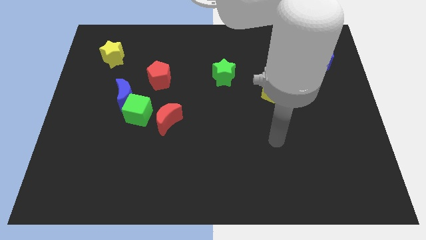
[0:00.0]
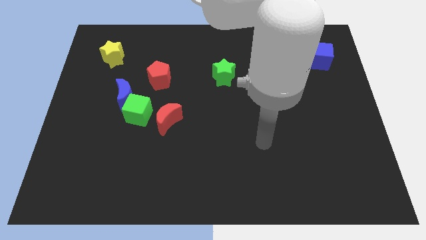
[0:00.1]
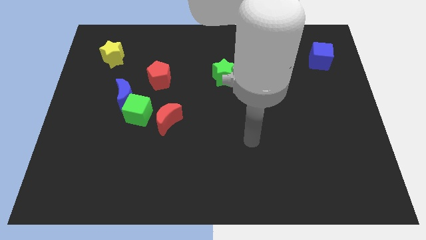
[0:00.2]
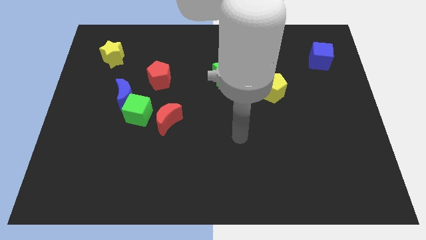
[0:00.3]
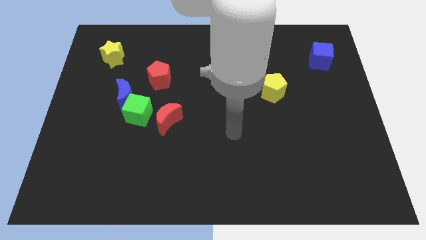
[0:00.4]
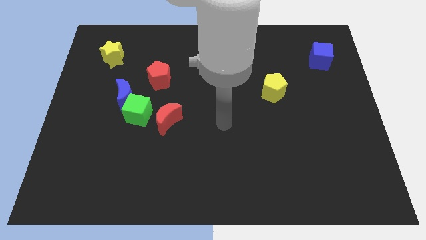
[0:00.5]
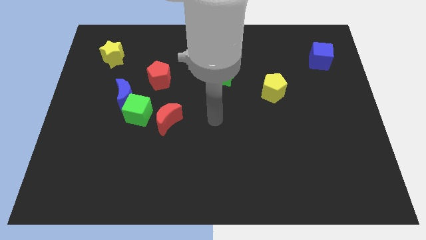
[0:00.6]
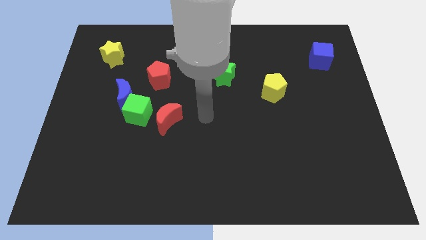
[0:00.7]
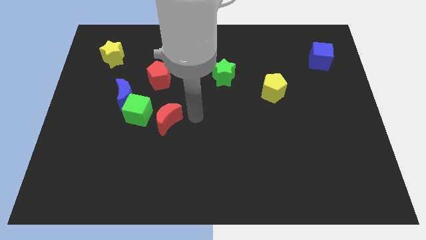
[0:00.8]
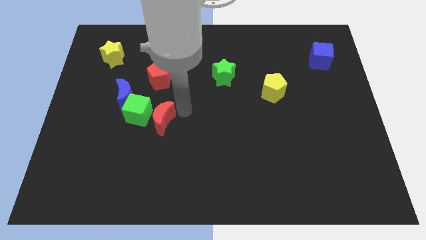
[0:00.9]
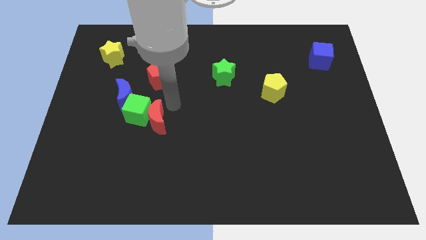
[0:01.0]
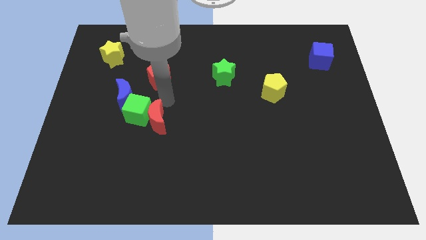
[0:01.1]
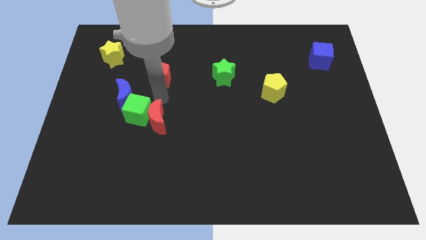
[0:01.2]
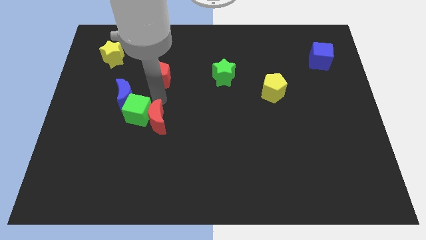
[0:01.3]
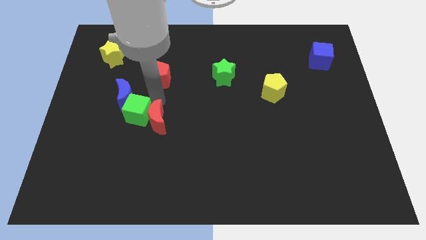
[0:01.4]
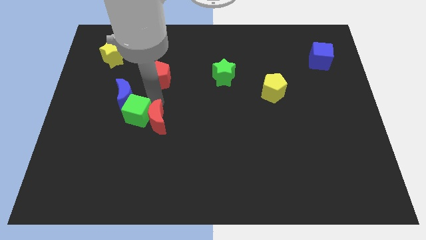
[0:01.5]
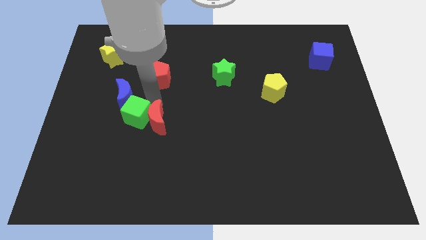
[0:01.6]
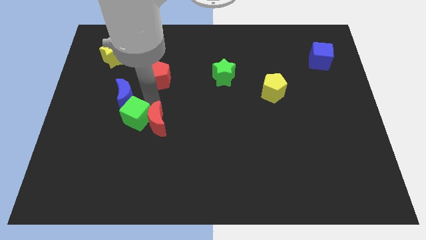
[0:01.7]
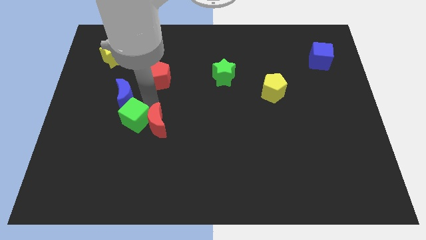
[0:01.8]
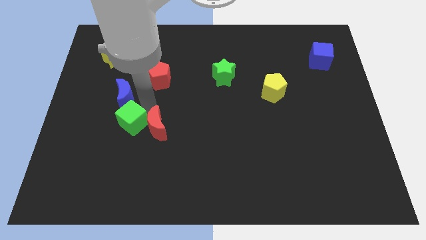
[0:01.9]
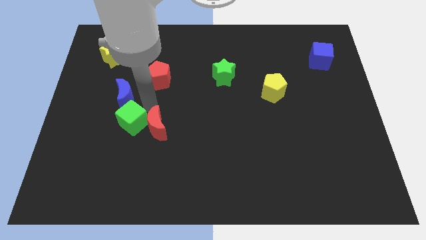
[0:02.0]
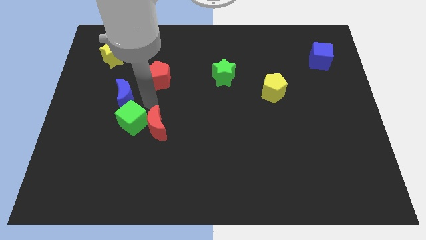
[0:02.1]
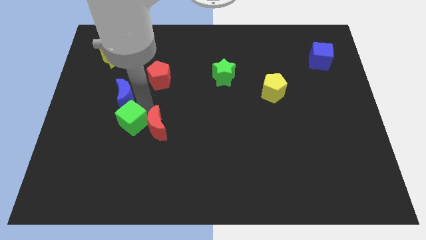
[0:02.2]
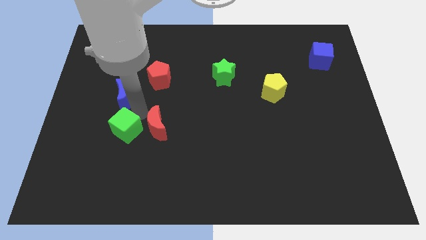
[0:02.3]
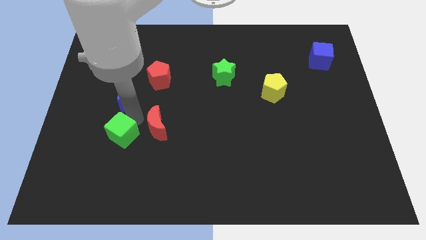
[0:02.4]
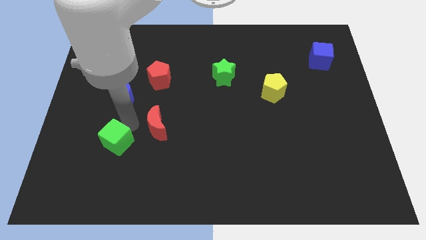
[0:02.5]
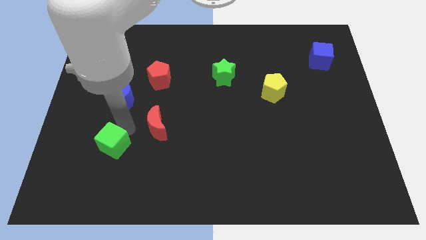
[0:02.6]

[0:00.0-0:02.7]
separate the green cube from the blue moon and red moon

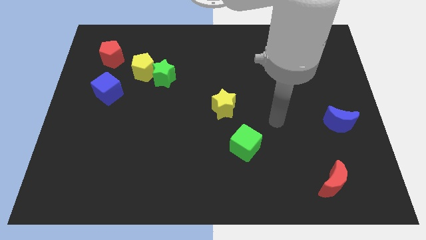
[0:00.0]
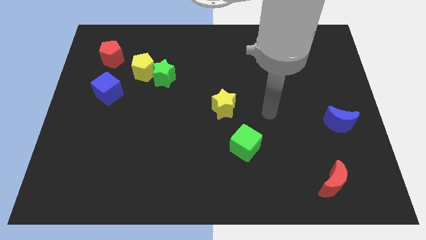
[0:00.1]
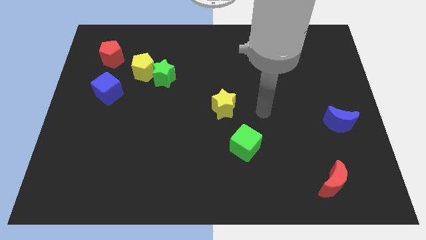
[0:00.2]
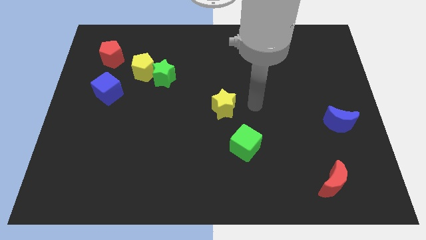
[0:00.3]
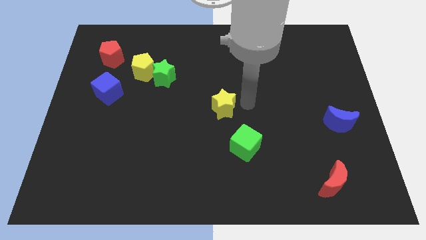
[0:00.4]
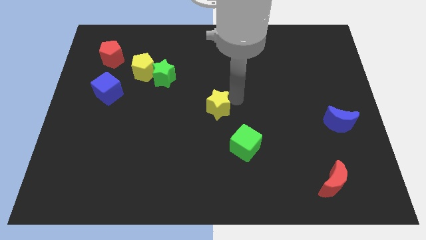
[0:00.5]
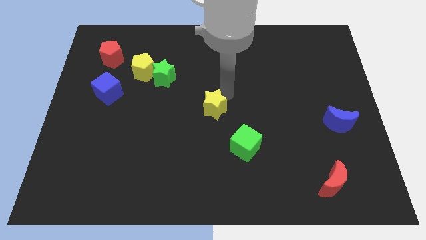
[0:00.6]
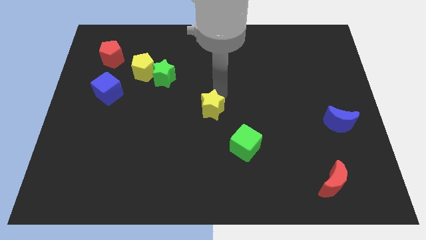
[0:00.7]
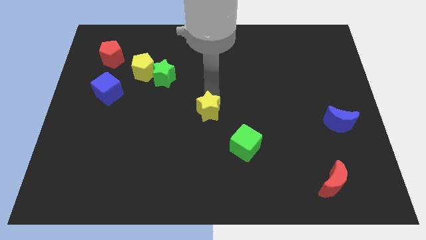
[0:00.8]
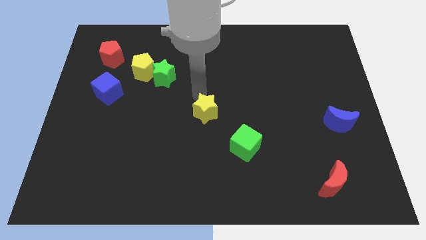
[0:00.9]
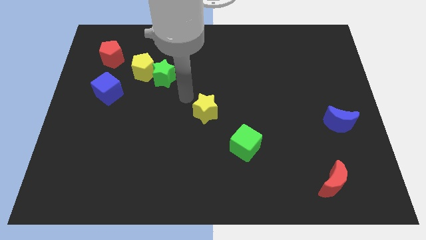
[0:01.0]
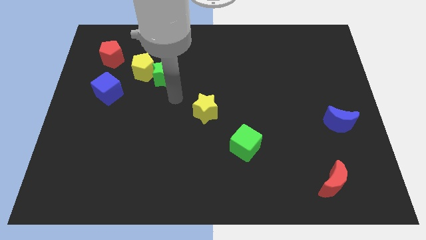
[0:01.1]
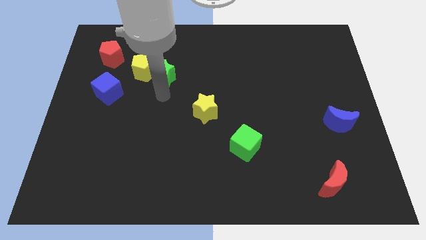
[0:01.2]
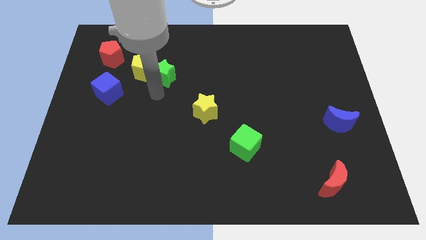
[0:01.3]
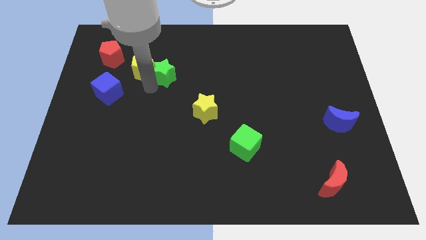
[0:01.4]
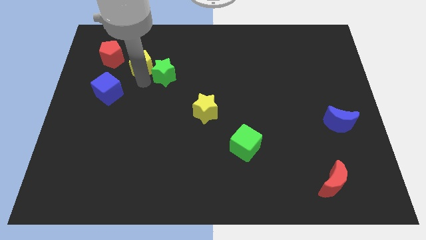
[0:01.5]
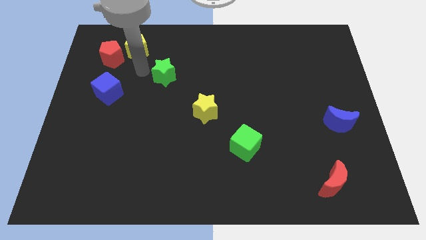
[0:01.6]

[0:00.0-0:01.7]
pull the green star apart from the yellow pentagon

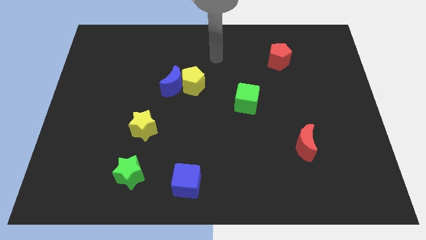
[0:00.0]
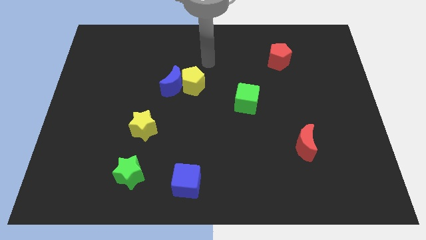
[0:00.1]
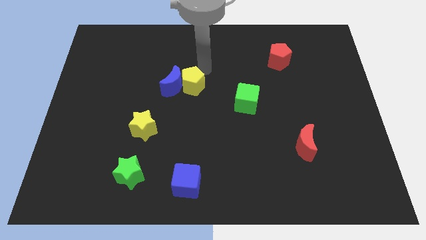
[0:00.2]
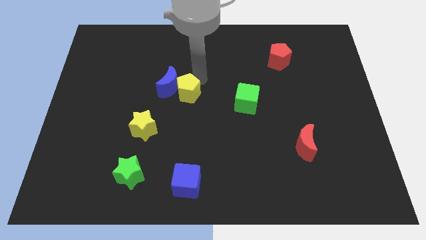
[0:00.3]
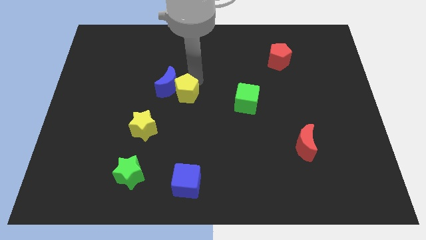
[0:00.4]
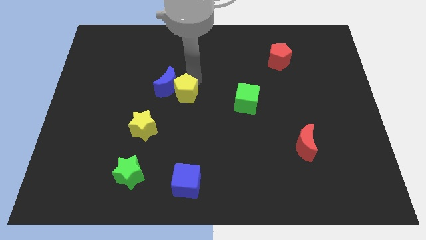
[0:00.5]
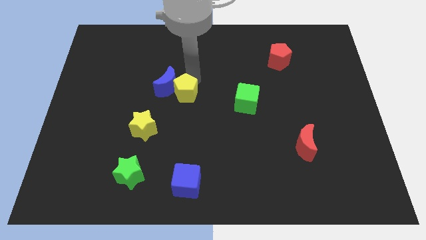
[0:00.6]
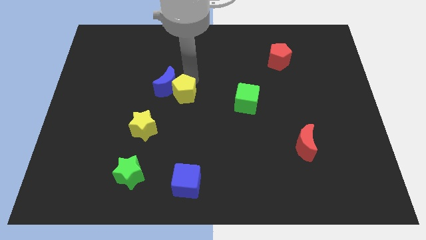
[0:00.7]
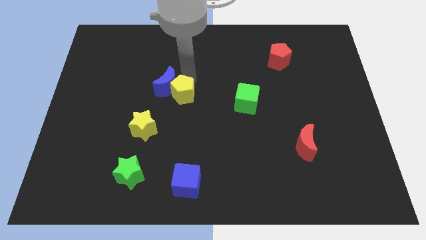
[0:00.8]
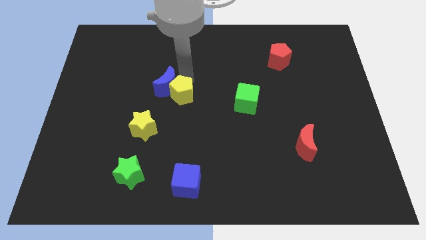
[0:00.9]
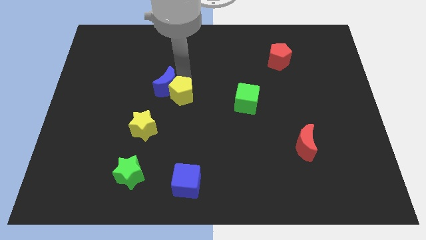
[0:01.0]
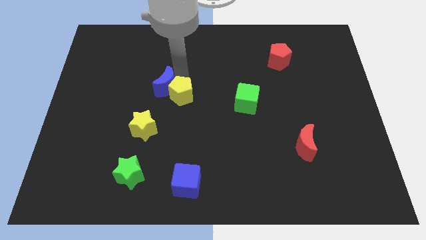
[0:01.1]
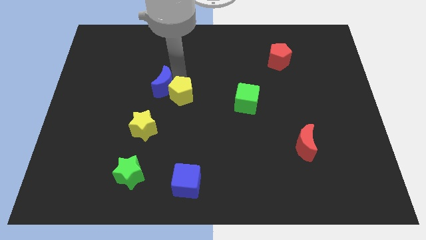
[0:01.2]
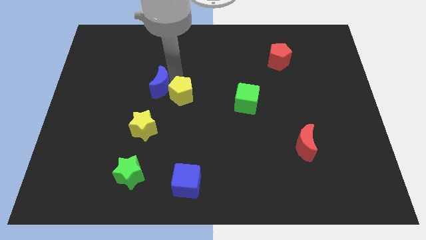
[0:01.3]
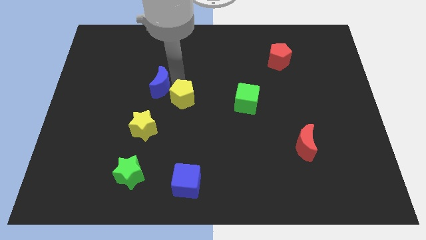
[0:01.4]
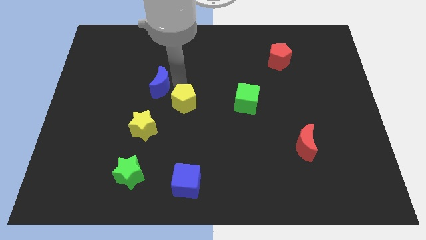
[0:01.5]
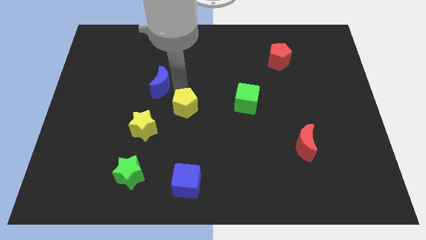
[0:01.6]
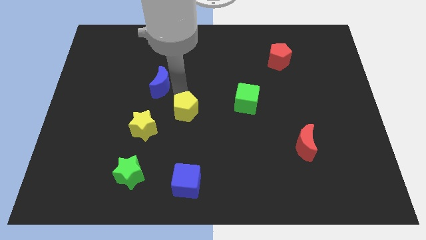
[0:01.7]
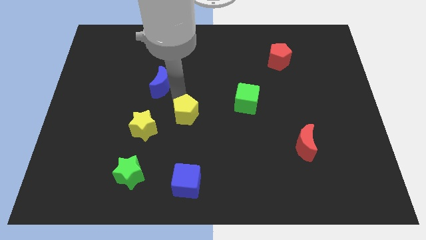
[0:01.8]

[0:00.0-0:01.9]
separate the blue moon from the yellow pentagon

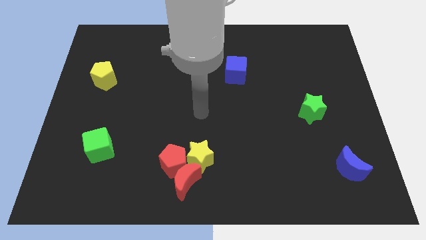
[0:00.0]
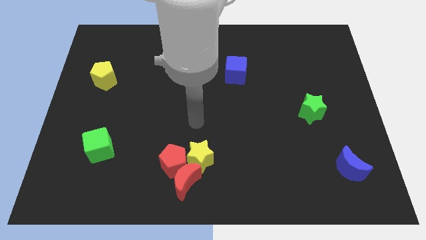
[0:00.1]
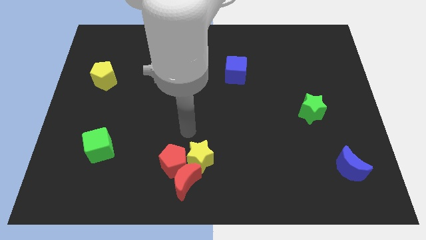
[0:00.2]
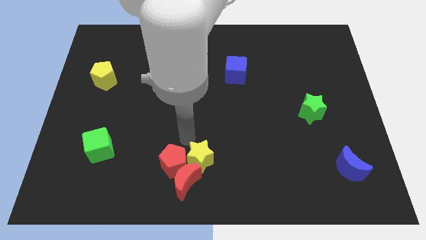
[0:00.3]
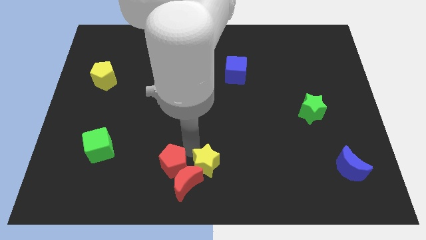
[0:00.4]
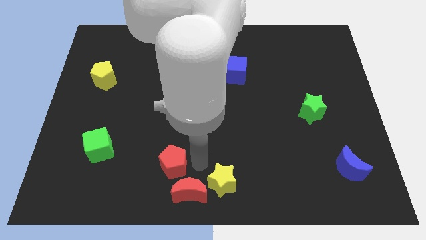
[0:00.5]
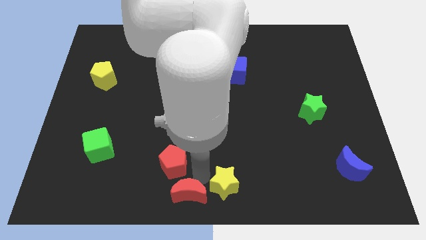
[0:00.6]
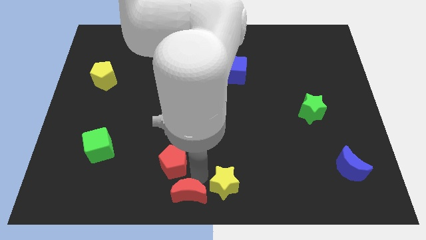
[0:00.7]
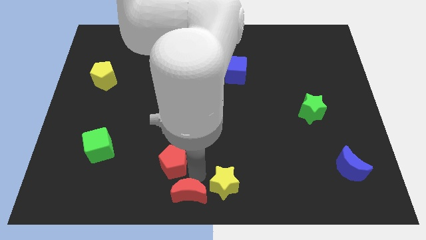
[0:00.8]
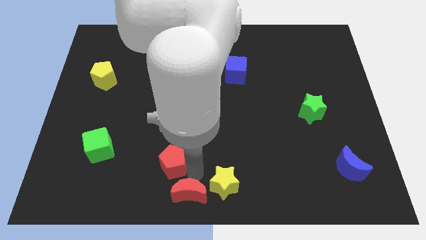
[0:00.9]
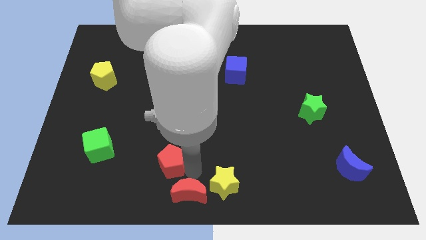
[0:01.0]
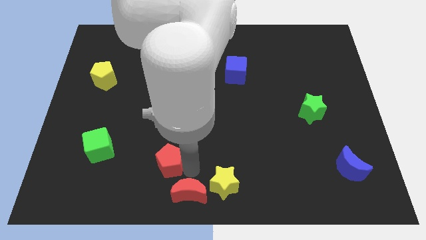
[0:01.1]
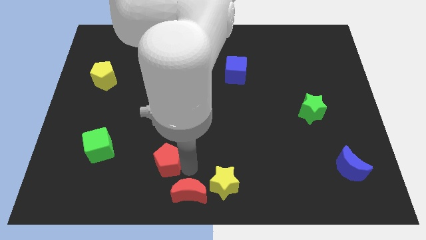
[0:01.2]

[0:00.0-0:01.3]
separate the red pentagon from the red moon and yellow star

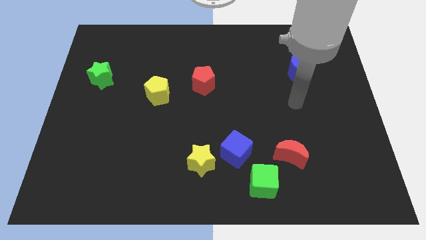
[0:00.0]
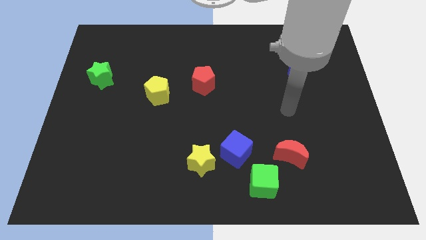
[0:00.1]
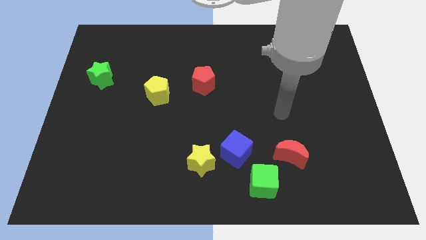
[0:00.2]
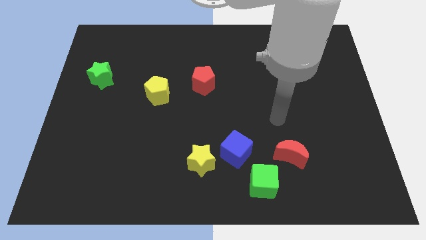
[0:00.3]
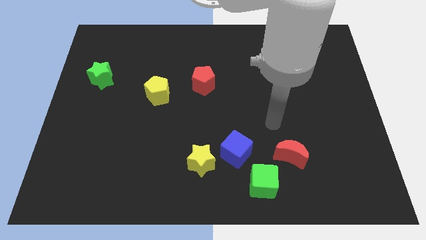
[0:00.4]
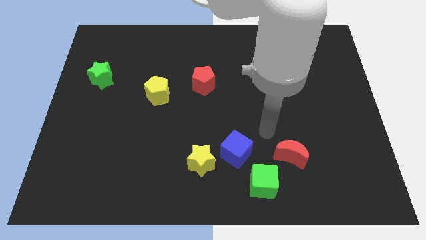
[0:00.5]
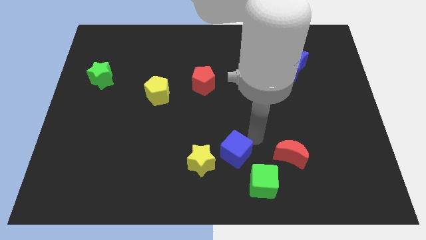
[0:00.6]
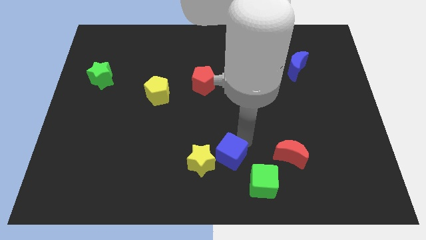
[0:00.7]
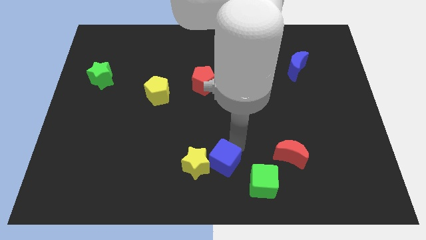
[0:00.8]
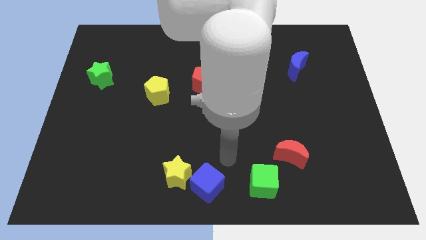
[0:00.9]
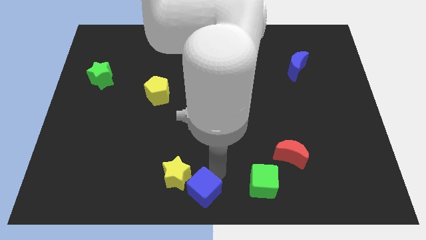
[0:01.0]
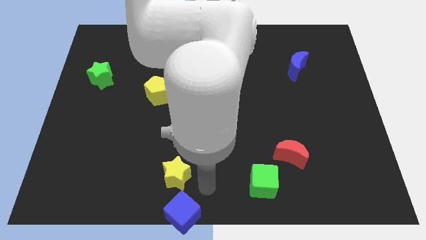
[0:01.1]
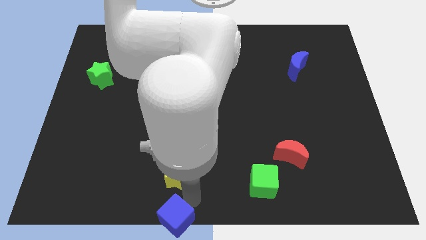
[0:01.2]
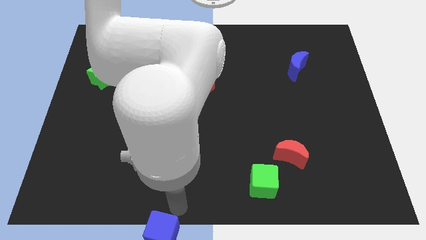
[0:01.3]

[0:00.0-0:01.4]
move the yellow star away from the blue cube

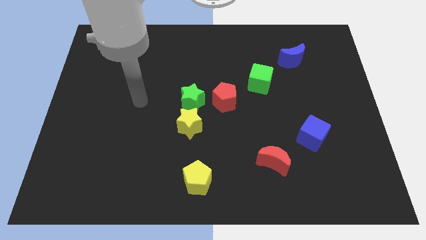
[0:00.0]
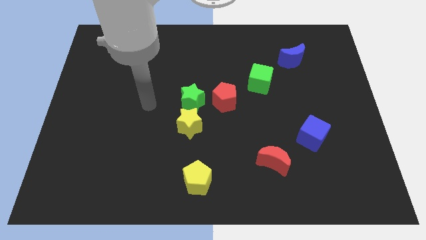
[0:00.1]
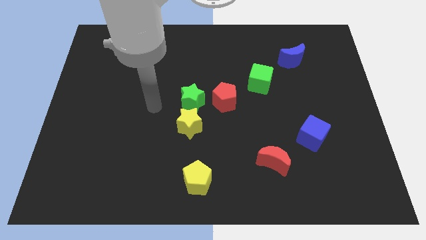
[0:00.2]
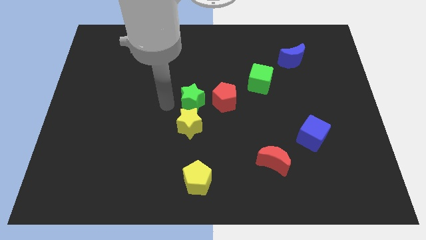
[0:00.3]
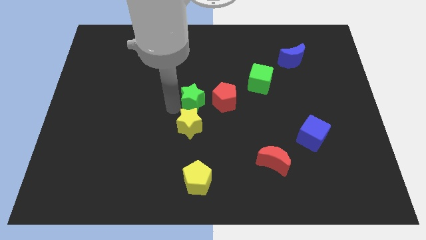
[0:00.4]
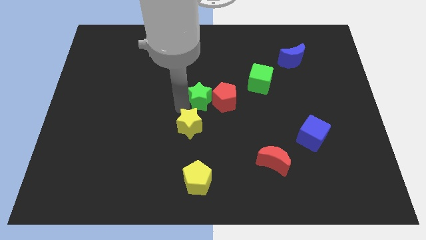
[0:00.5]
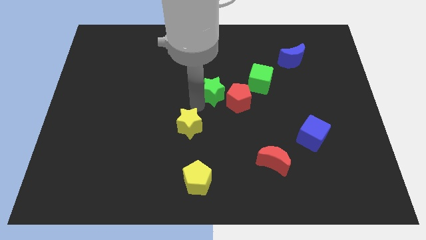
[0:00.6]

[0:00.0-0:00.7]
pull the yellow star apart from the green star
